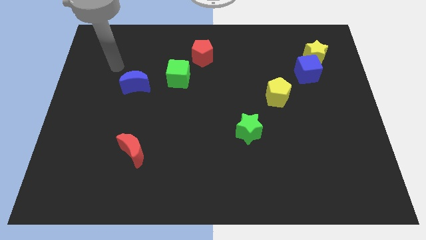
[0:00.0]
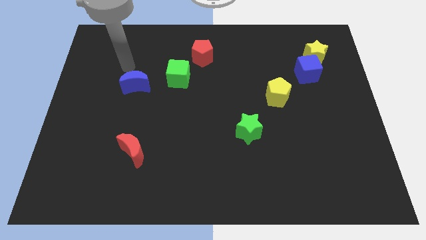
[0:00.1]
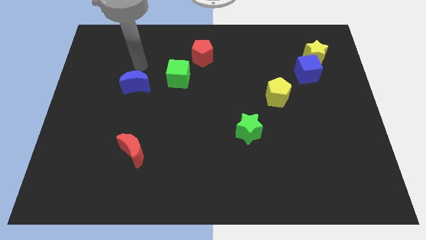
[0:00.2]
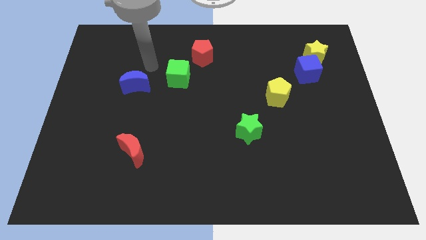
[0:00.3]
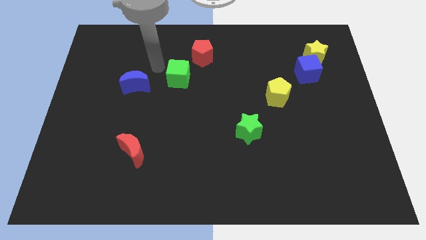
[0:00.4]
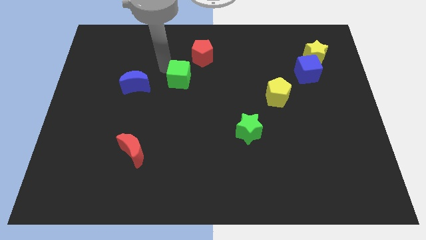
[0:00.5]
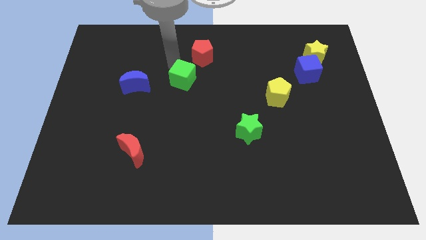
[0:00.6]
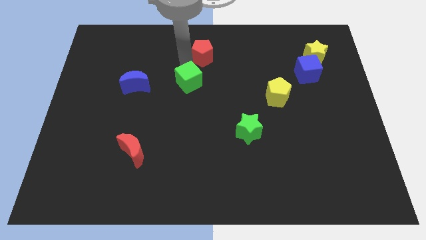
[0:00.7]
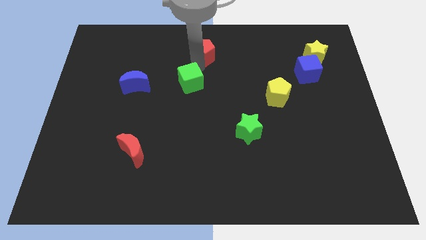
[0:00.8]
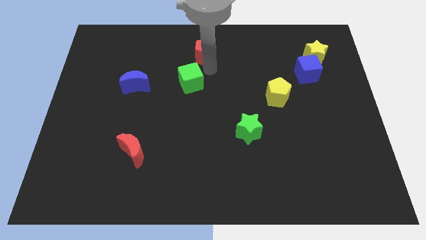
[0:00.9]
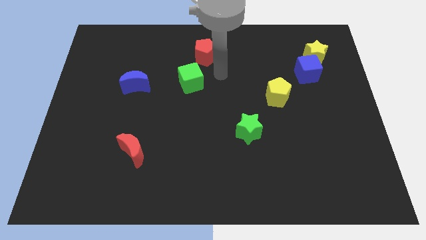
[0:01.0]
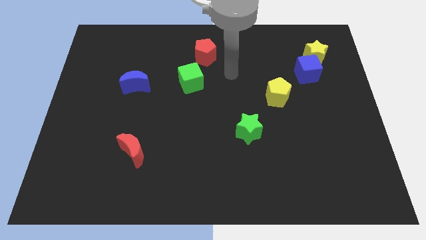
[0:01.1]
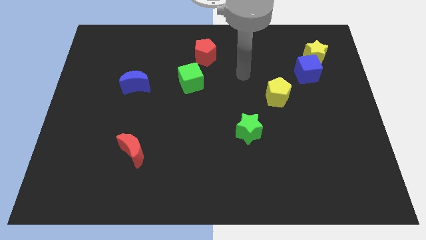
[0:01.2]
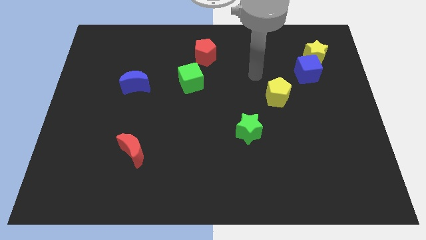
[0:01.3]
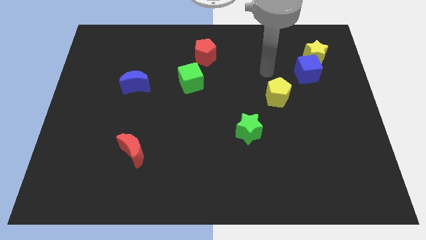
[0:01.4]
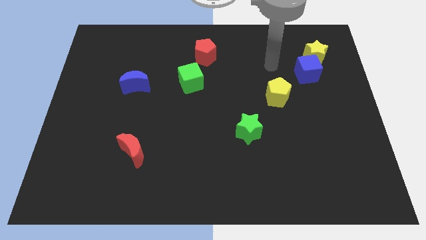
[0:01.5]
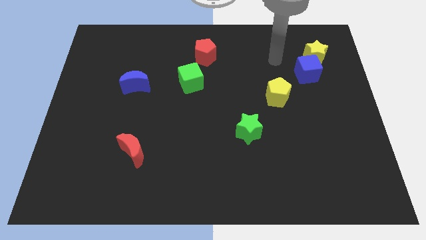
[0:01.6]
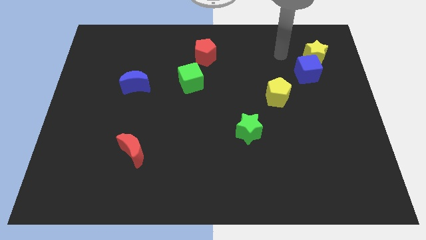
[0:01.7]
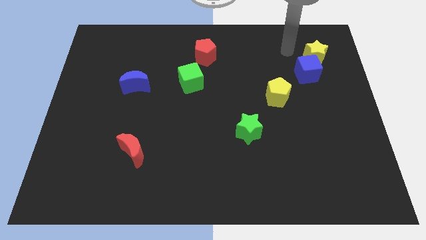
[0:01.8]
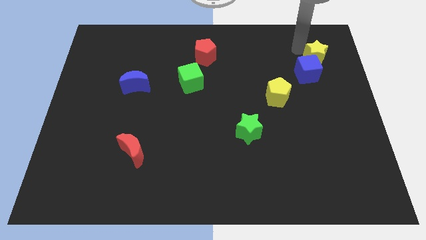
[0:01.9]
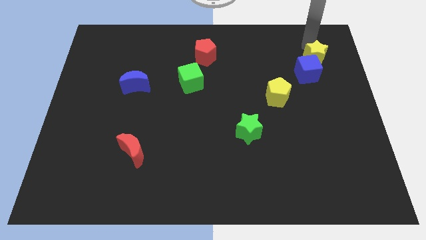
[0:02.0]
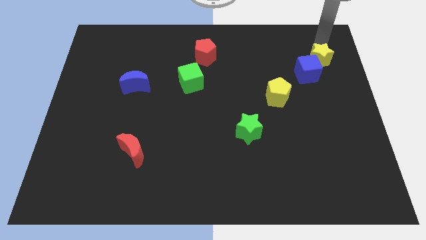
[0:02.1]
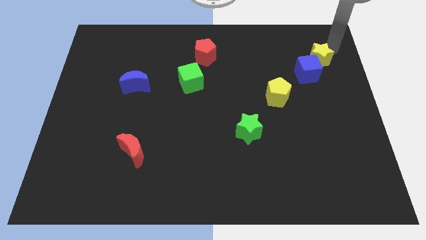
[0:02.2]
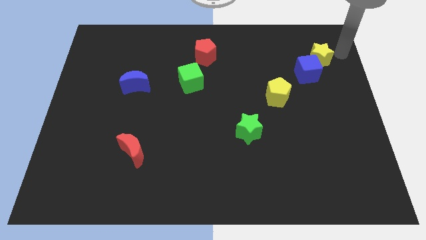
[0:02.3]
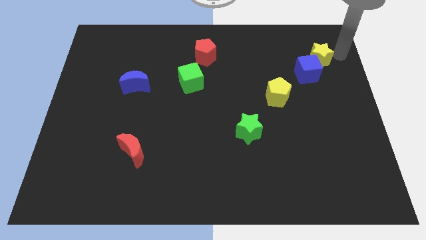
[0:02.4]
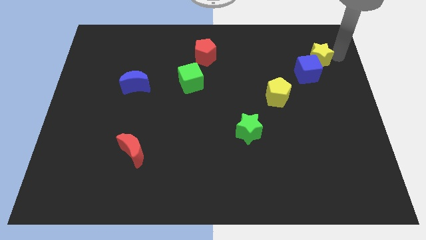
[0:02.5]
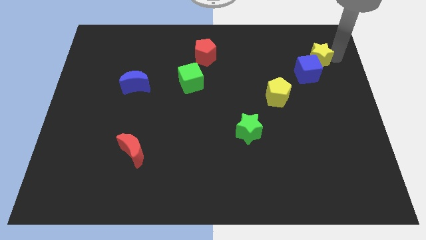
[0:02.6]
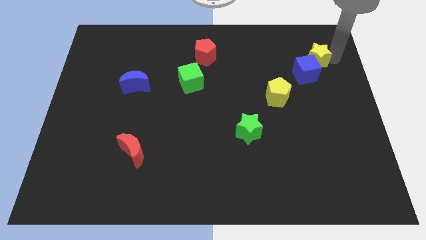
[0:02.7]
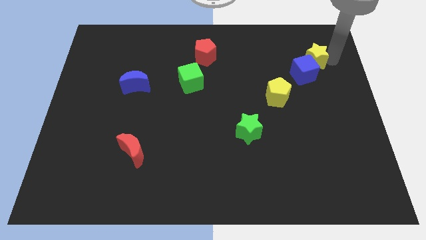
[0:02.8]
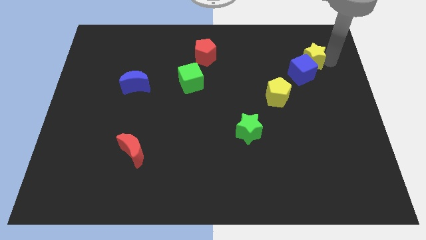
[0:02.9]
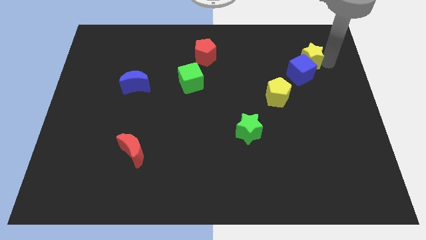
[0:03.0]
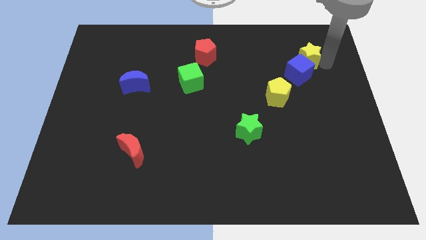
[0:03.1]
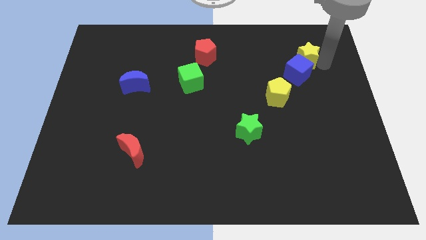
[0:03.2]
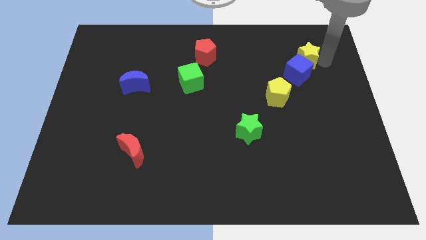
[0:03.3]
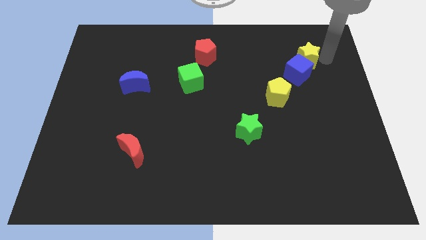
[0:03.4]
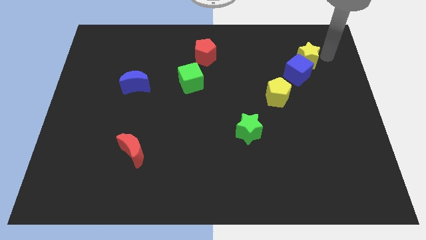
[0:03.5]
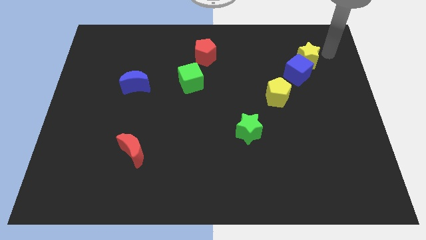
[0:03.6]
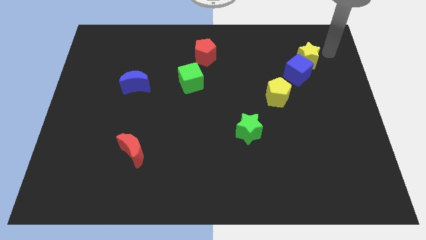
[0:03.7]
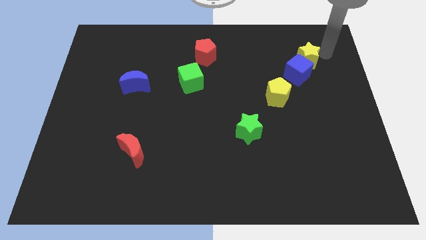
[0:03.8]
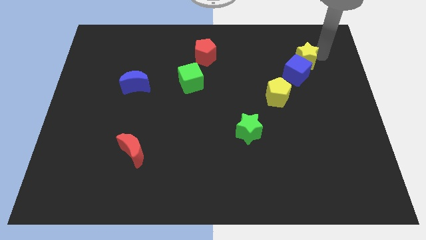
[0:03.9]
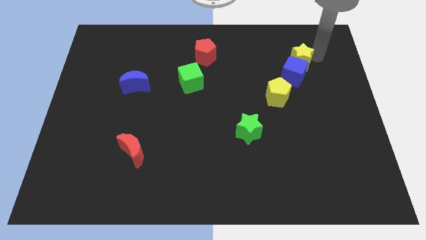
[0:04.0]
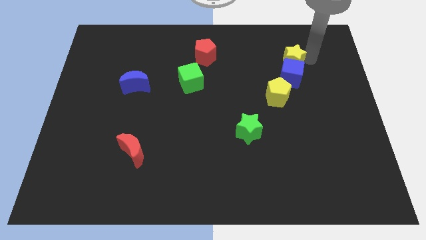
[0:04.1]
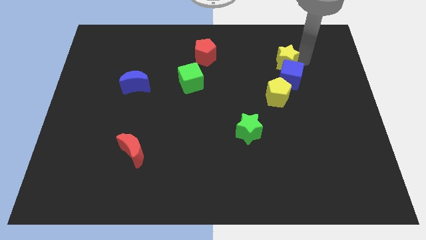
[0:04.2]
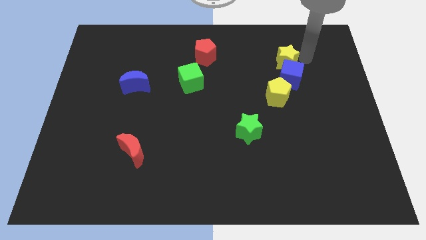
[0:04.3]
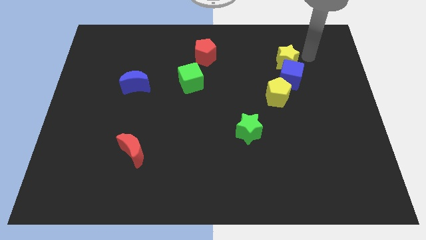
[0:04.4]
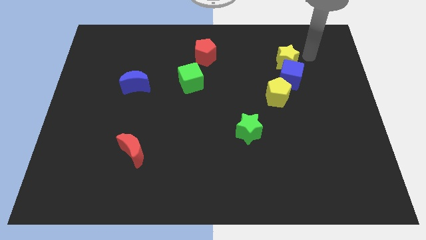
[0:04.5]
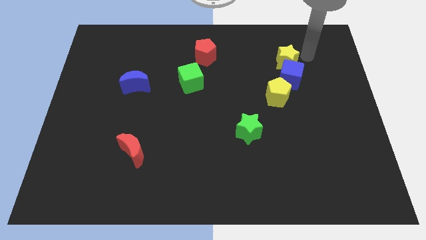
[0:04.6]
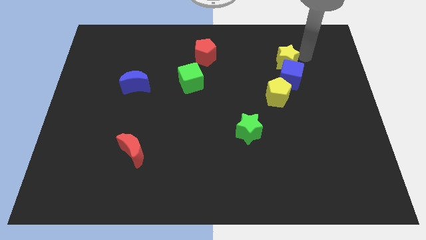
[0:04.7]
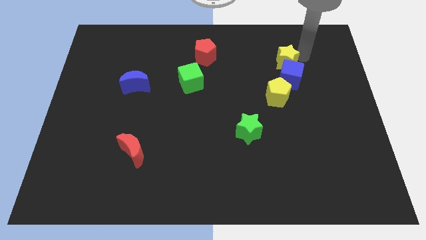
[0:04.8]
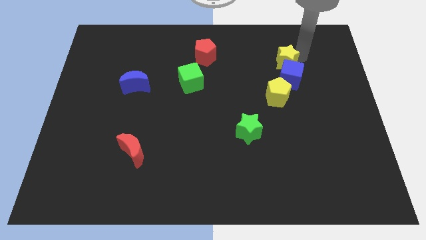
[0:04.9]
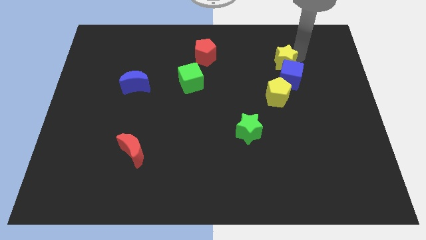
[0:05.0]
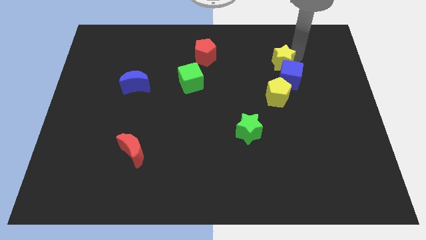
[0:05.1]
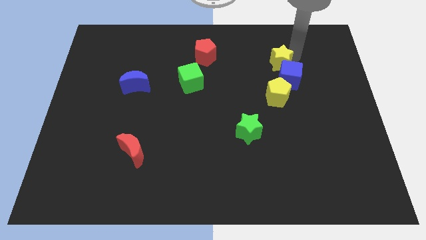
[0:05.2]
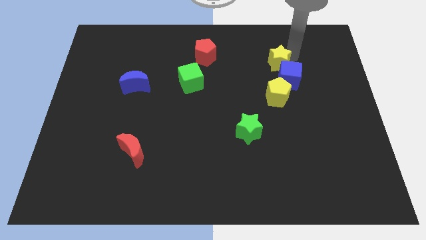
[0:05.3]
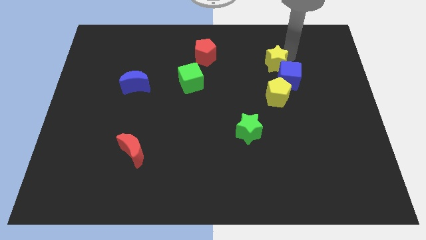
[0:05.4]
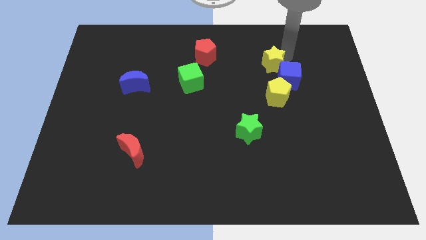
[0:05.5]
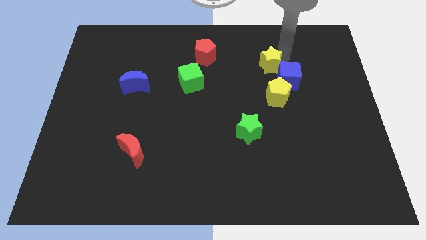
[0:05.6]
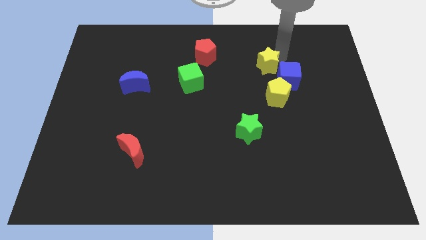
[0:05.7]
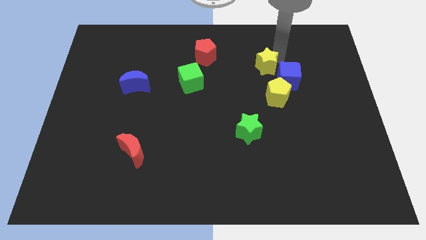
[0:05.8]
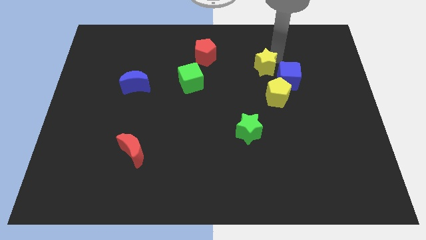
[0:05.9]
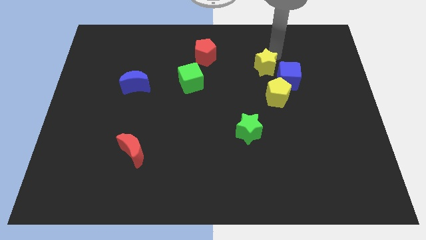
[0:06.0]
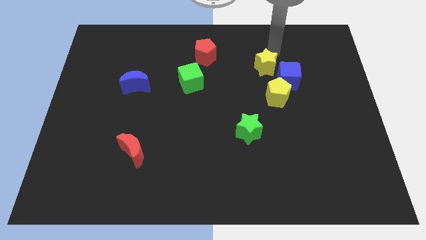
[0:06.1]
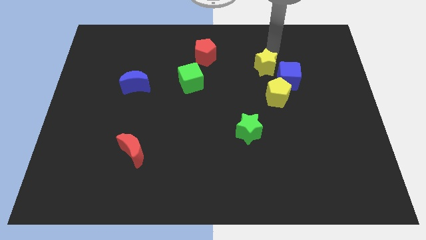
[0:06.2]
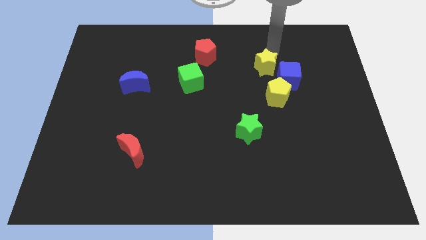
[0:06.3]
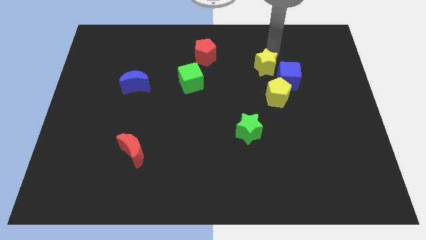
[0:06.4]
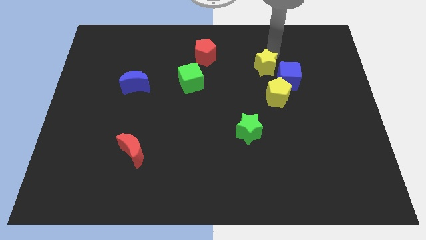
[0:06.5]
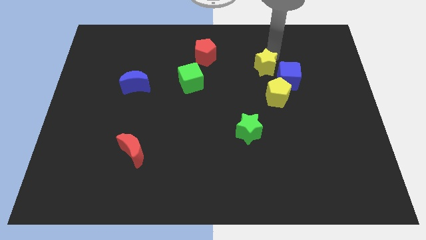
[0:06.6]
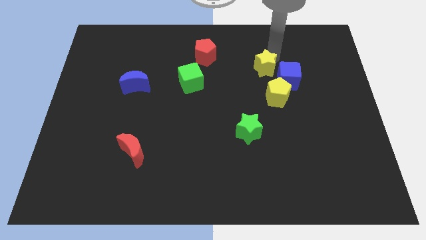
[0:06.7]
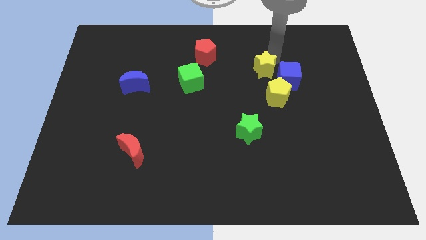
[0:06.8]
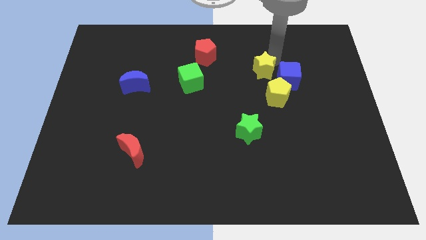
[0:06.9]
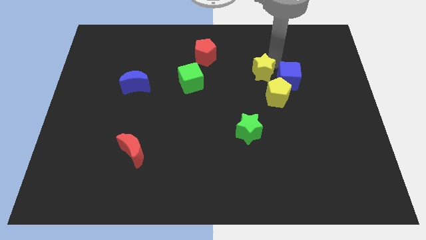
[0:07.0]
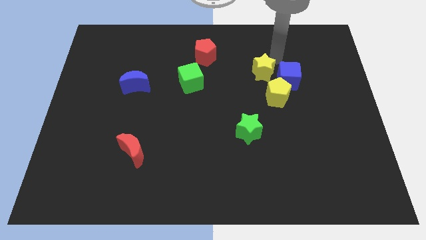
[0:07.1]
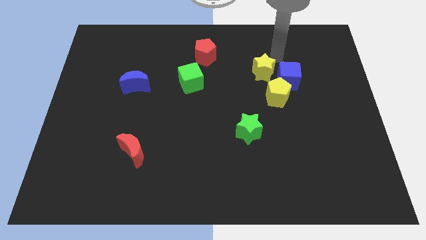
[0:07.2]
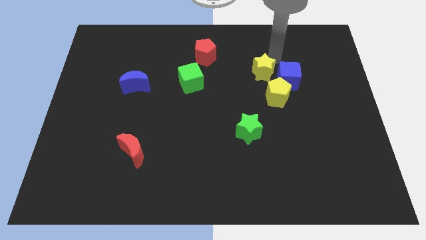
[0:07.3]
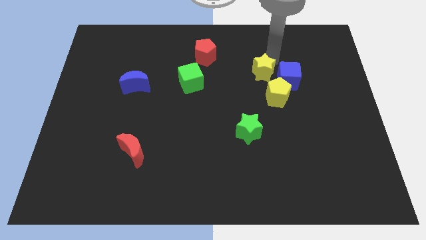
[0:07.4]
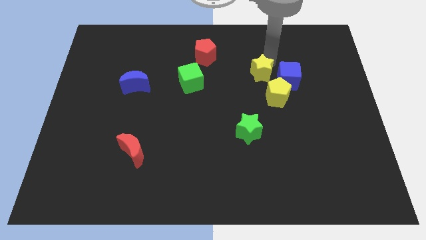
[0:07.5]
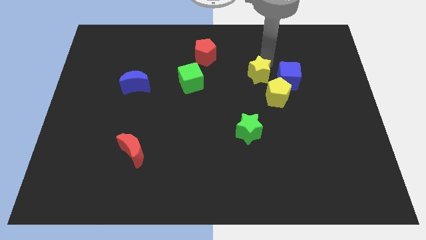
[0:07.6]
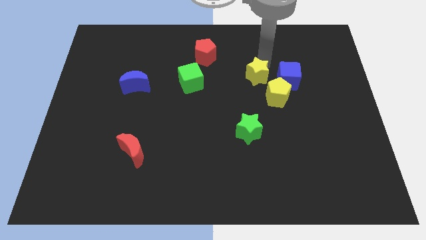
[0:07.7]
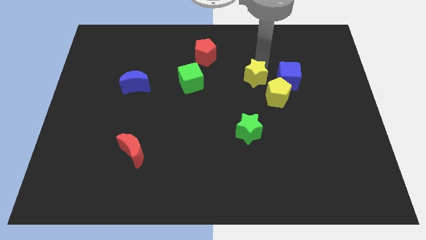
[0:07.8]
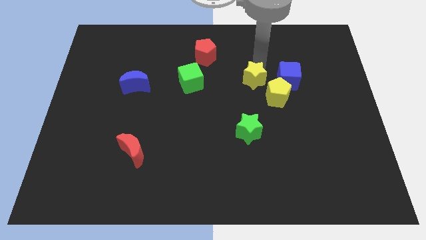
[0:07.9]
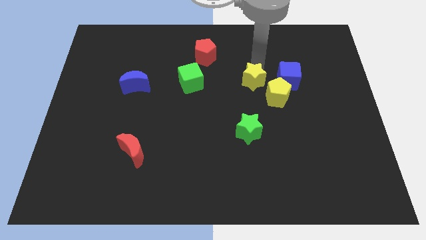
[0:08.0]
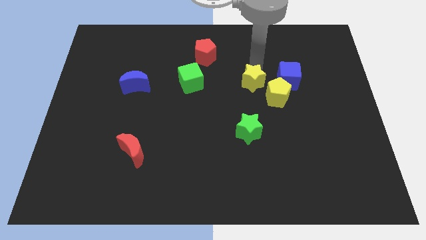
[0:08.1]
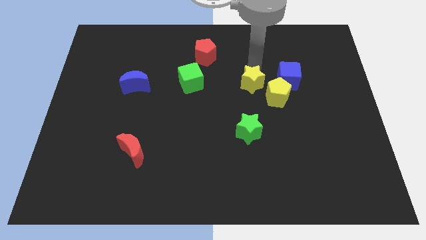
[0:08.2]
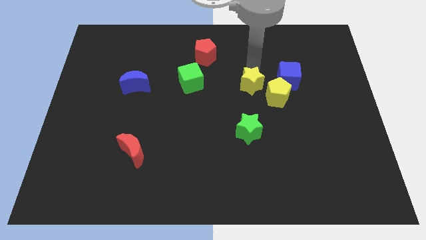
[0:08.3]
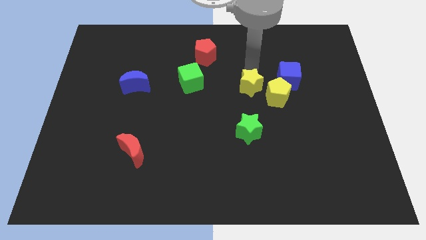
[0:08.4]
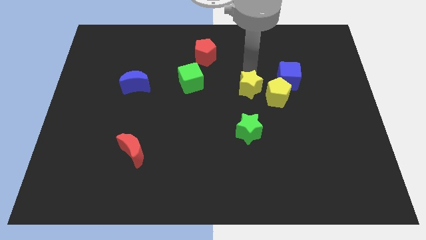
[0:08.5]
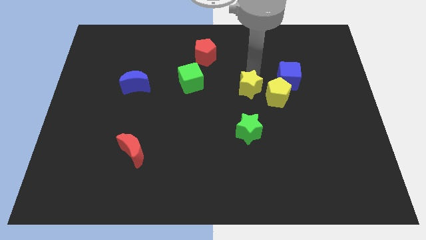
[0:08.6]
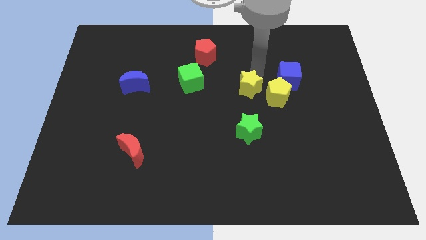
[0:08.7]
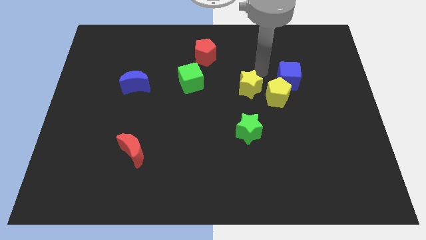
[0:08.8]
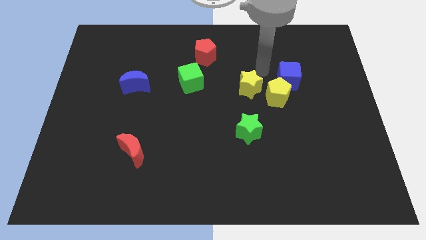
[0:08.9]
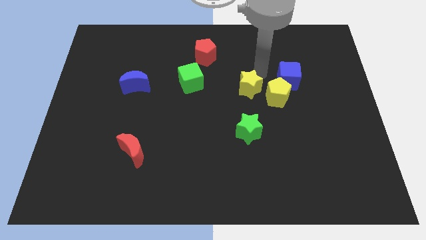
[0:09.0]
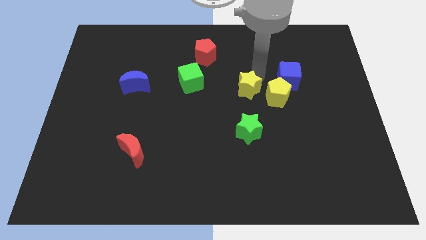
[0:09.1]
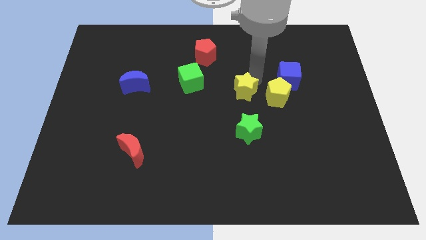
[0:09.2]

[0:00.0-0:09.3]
slide the yellow star down and to the left
